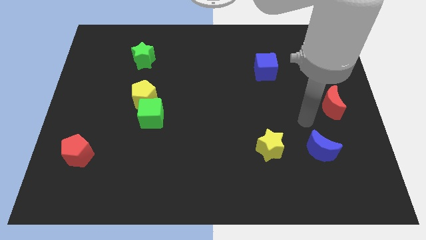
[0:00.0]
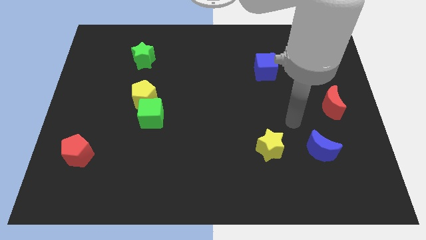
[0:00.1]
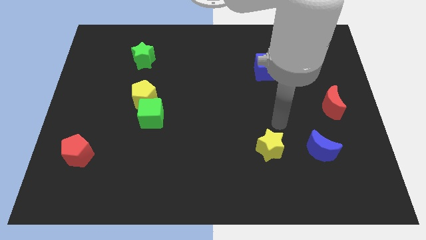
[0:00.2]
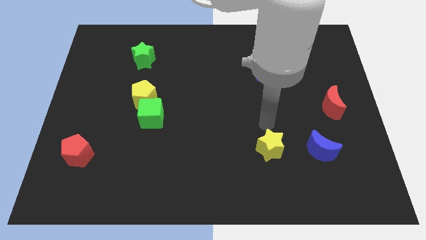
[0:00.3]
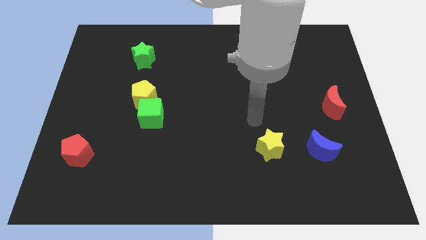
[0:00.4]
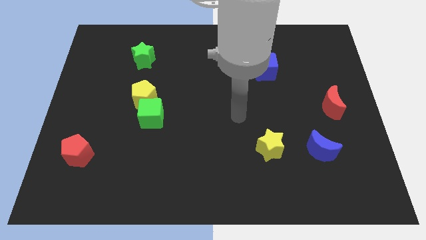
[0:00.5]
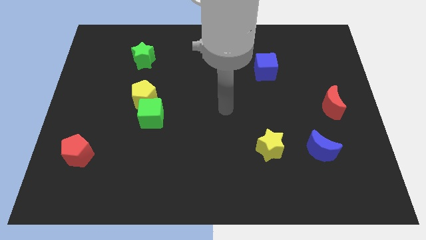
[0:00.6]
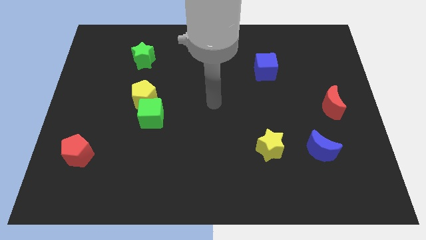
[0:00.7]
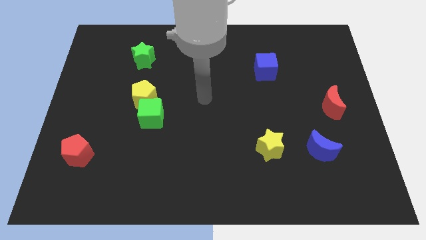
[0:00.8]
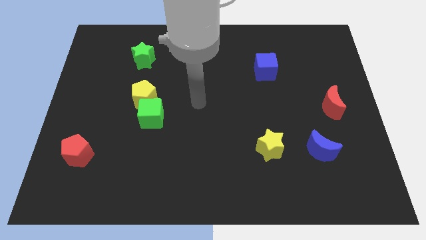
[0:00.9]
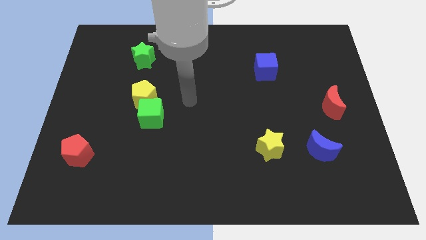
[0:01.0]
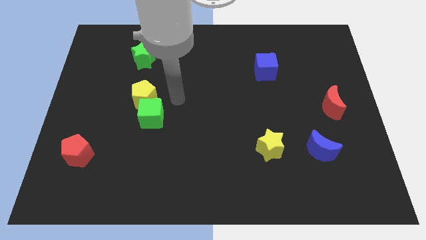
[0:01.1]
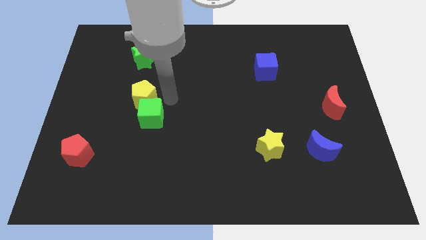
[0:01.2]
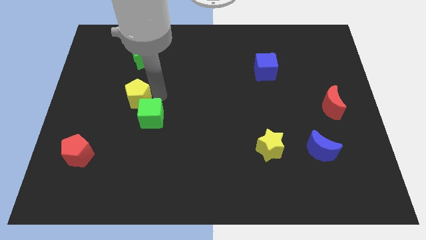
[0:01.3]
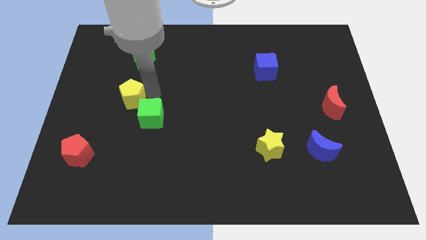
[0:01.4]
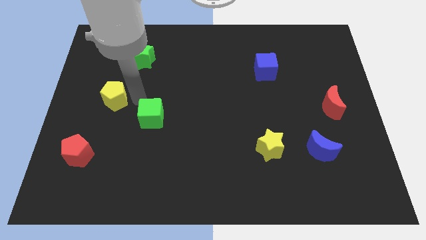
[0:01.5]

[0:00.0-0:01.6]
pull the green cube apart from the yellow pentagon

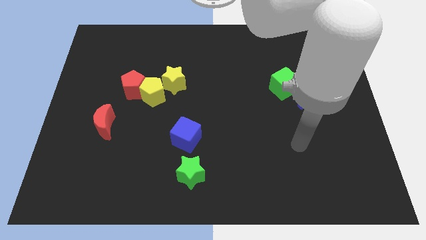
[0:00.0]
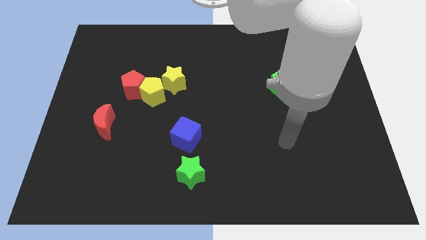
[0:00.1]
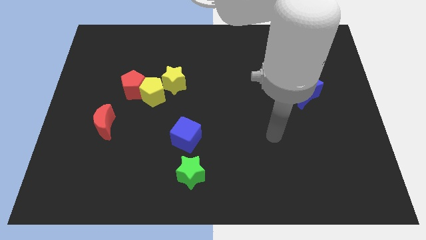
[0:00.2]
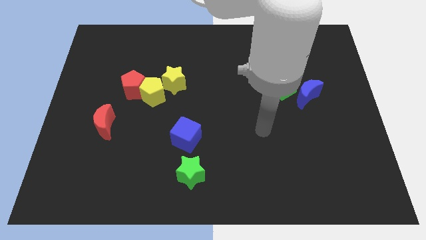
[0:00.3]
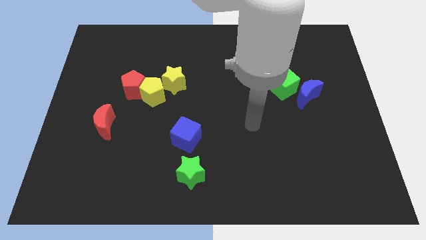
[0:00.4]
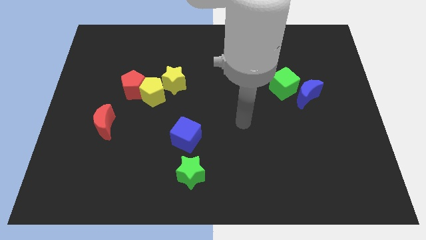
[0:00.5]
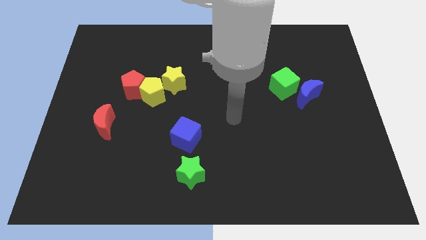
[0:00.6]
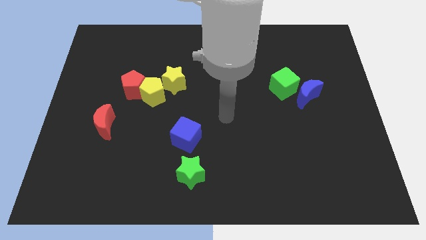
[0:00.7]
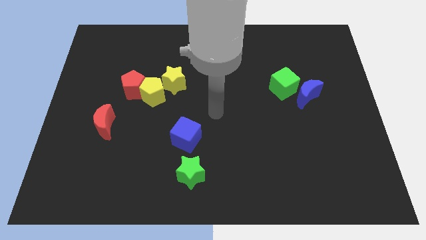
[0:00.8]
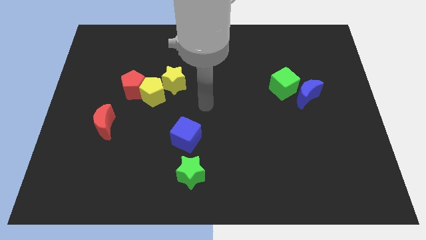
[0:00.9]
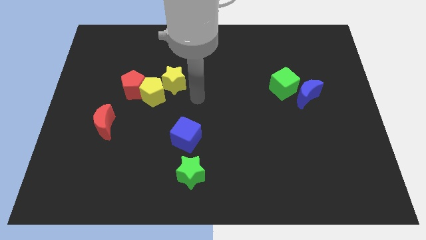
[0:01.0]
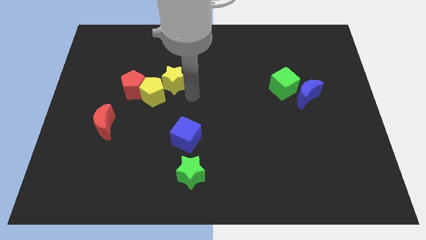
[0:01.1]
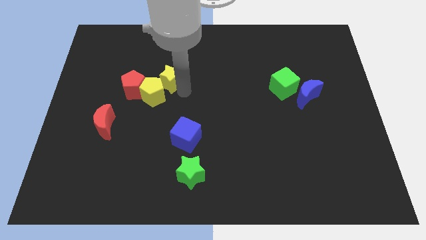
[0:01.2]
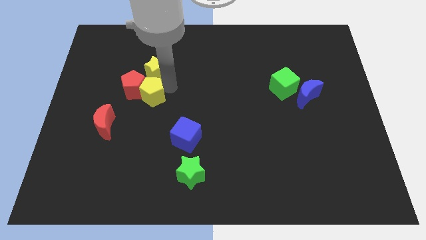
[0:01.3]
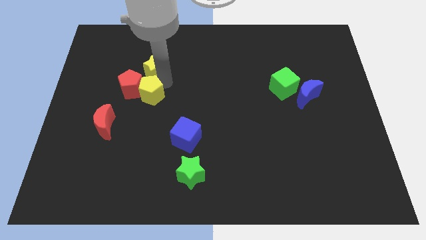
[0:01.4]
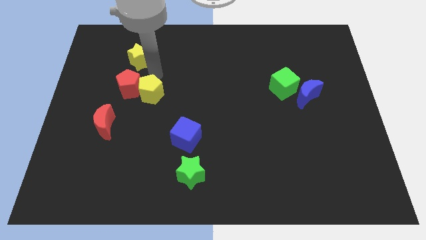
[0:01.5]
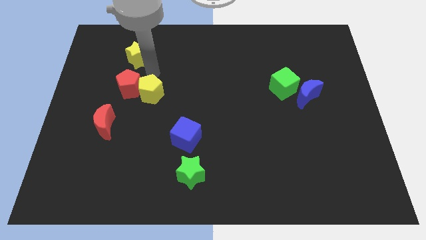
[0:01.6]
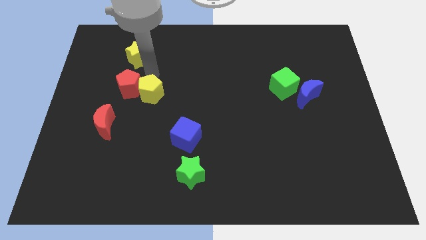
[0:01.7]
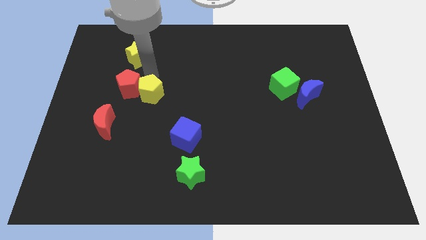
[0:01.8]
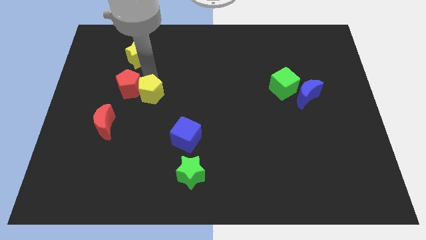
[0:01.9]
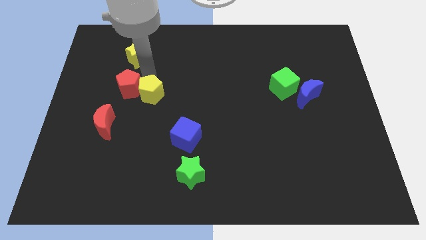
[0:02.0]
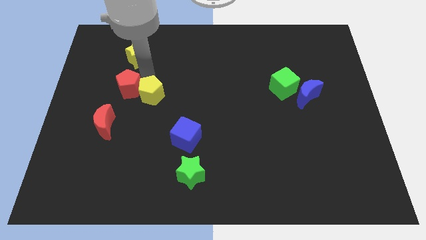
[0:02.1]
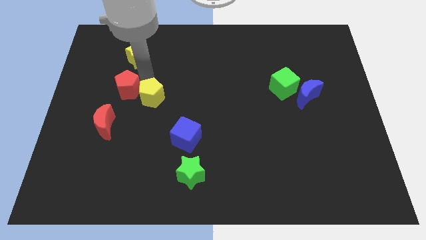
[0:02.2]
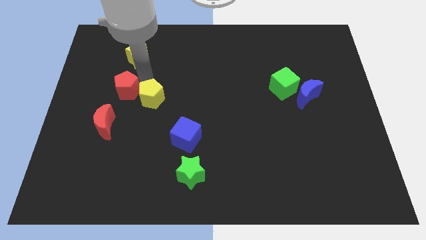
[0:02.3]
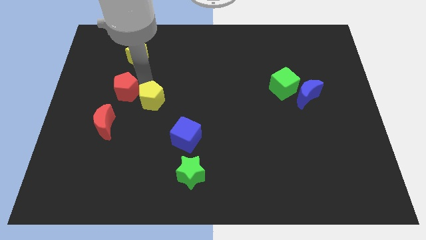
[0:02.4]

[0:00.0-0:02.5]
pull the yellow pentagon apart from the red pentagon and yellow star

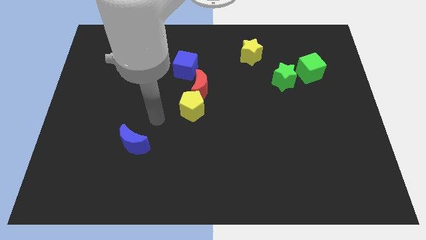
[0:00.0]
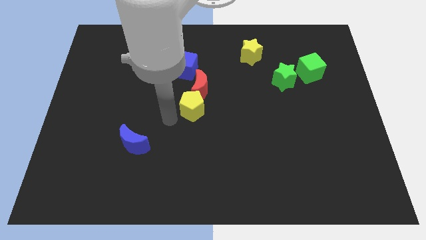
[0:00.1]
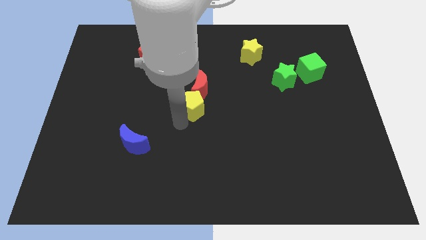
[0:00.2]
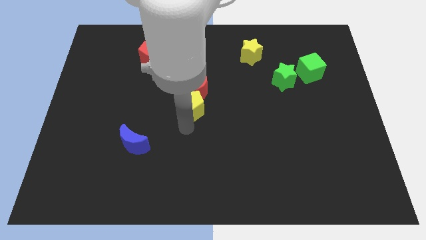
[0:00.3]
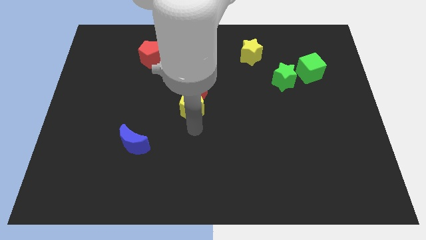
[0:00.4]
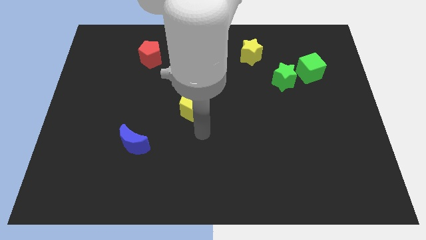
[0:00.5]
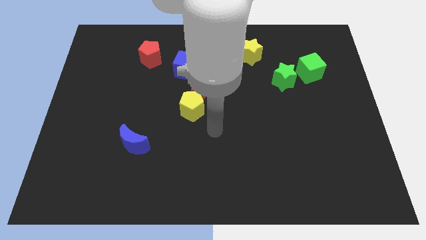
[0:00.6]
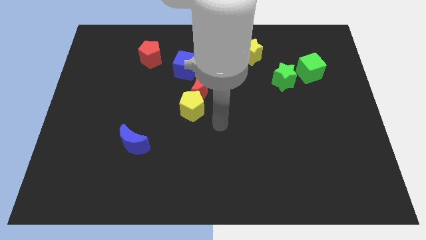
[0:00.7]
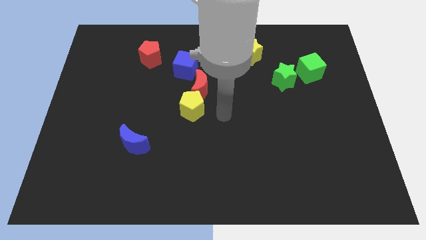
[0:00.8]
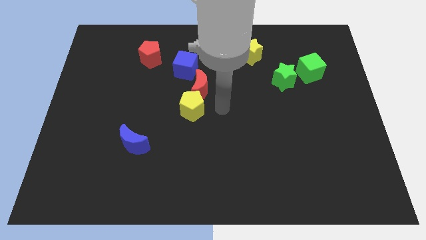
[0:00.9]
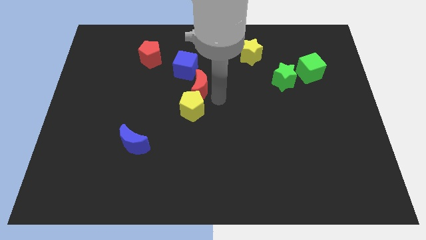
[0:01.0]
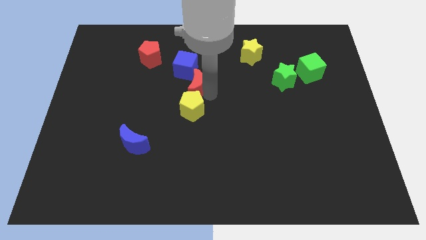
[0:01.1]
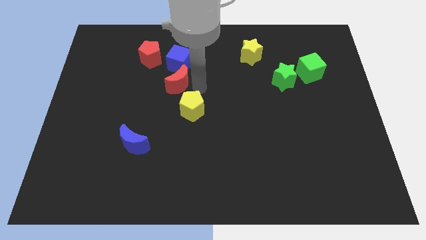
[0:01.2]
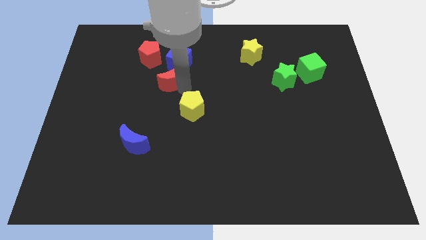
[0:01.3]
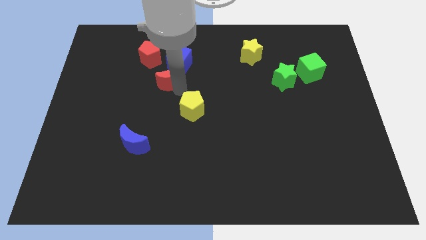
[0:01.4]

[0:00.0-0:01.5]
move the yellow pentagon away from the red moon

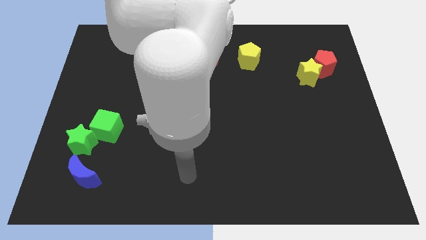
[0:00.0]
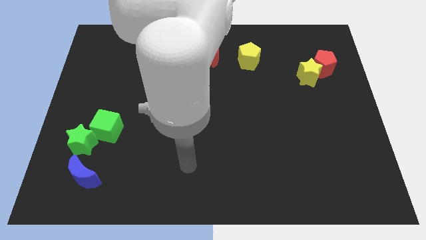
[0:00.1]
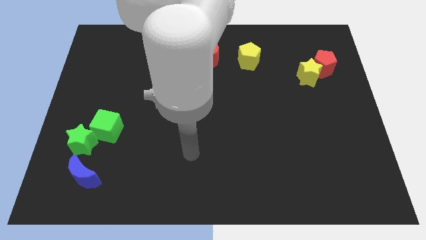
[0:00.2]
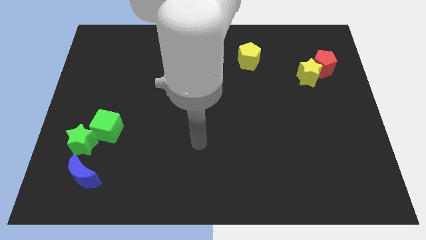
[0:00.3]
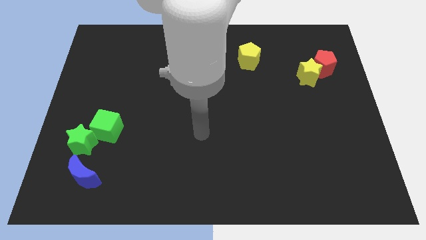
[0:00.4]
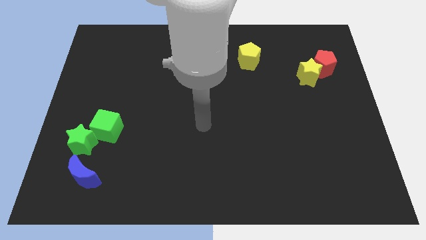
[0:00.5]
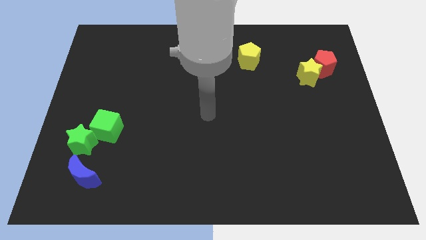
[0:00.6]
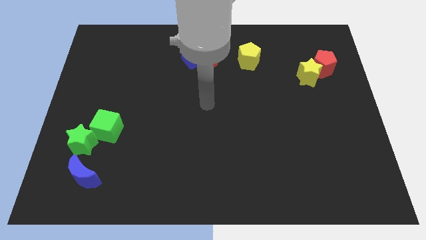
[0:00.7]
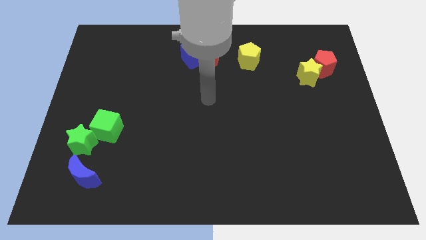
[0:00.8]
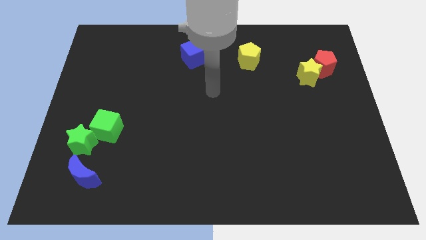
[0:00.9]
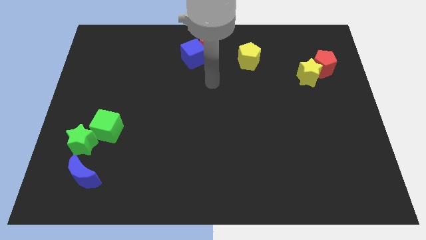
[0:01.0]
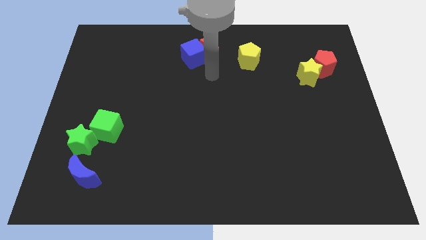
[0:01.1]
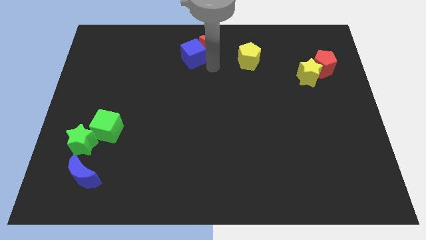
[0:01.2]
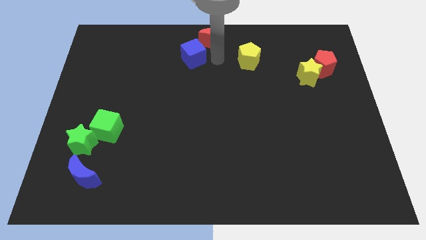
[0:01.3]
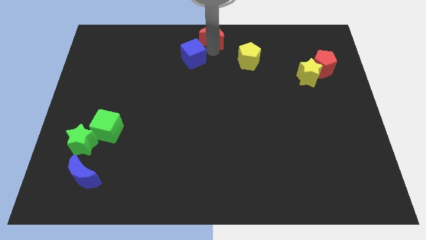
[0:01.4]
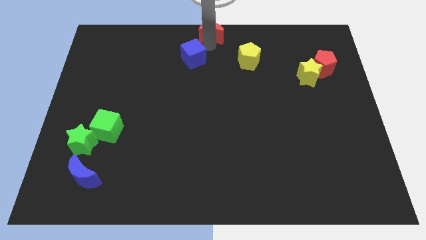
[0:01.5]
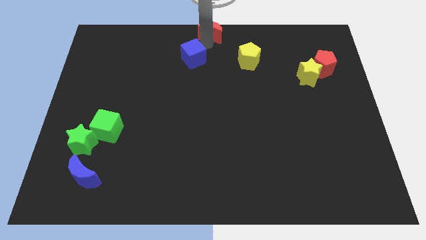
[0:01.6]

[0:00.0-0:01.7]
move the blue cube away from the red moon

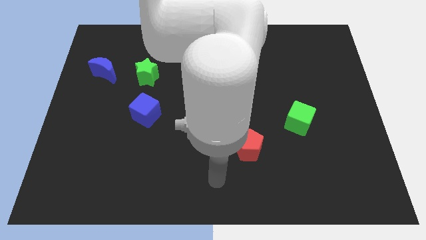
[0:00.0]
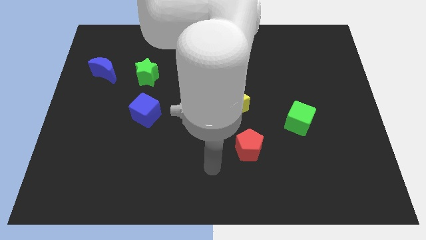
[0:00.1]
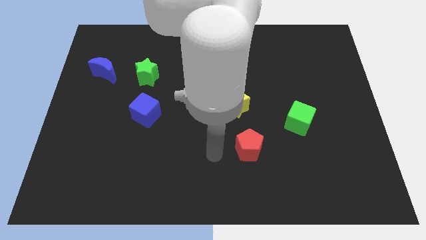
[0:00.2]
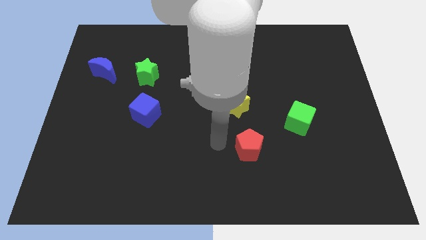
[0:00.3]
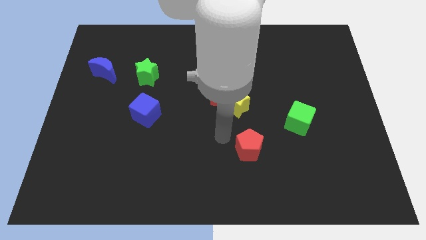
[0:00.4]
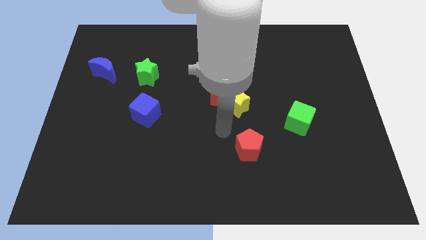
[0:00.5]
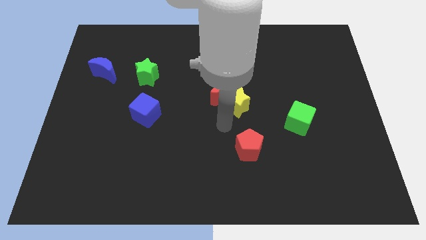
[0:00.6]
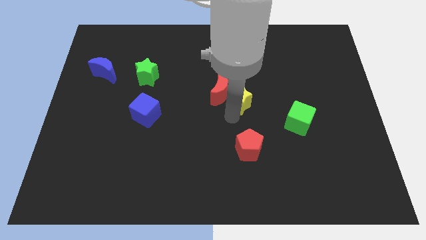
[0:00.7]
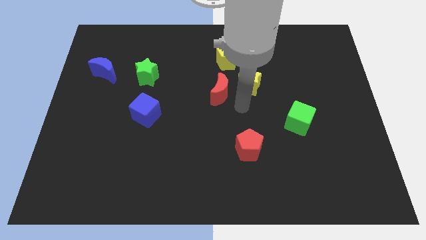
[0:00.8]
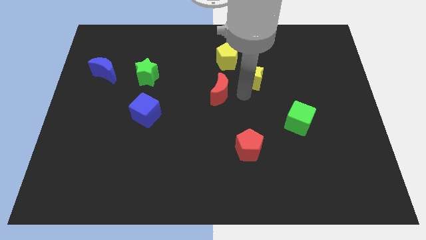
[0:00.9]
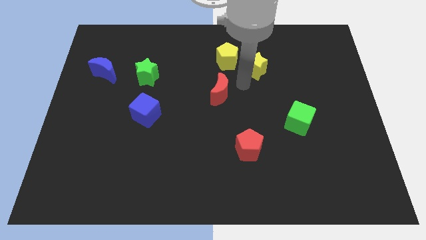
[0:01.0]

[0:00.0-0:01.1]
separate the red moon from the yellow star

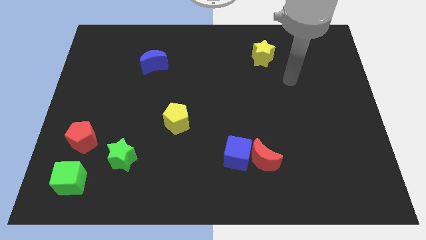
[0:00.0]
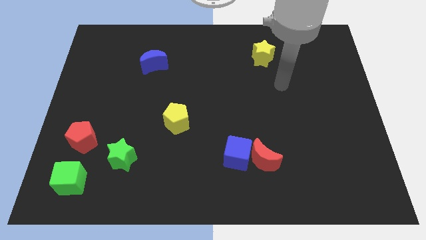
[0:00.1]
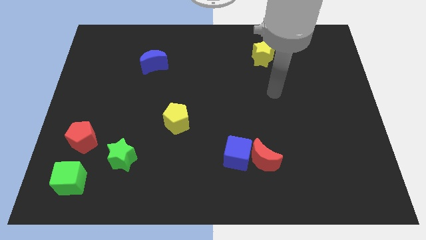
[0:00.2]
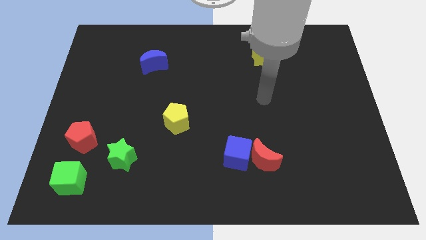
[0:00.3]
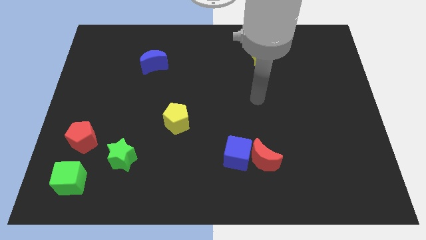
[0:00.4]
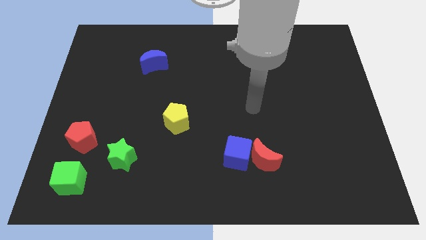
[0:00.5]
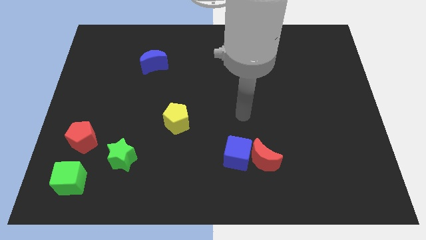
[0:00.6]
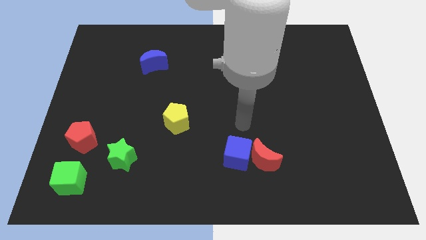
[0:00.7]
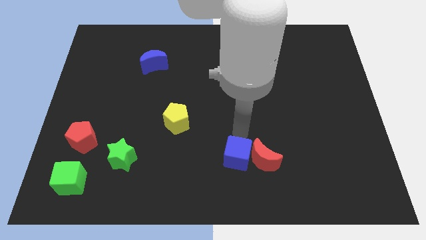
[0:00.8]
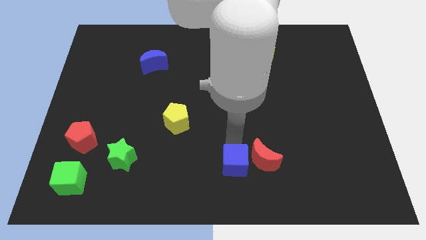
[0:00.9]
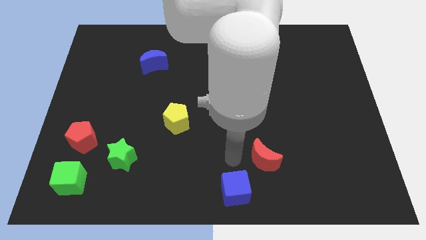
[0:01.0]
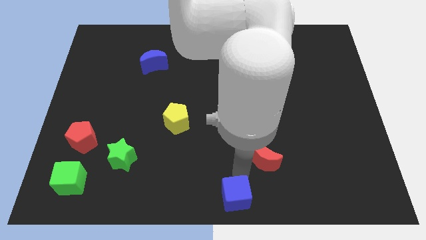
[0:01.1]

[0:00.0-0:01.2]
pull the red moon apart from the blue cube
